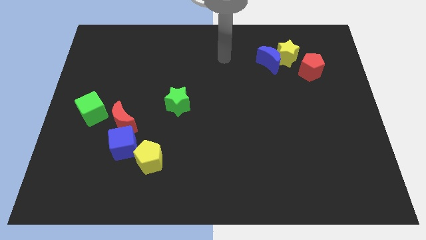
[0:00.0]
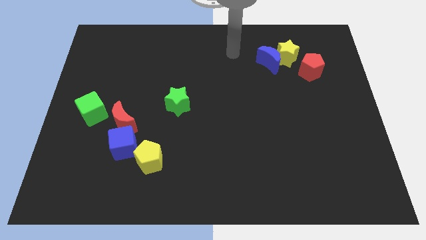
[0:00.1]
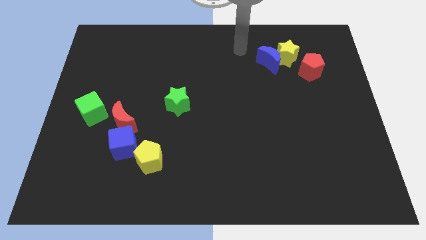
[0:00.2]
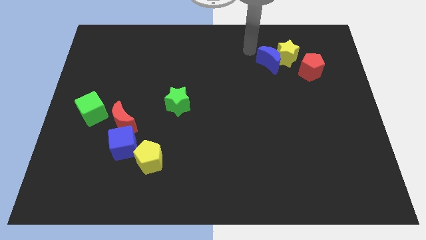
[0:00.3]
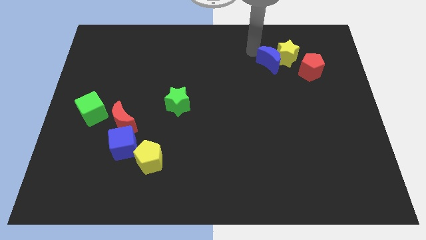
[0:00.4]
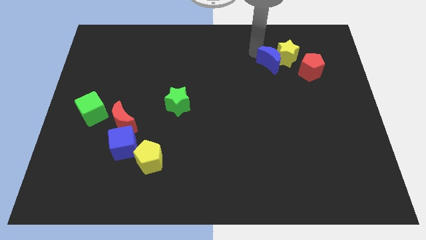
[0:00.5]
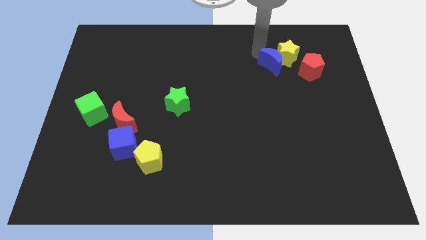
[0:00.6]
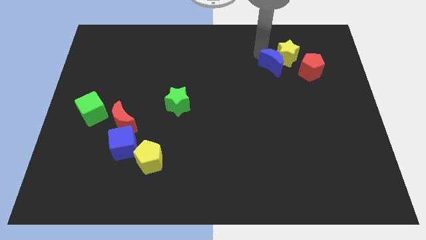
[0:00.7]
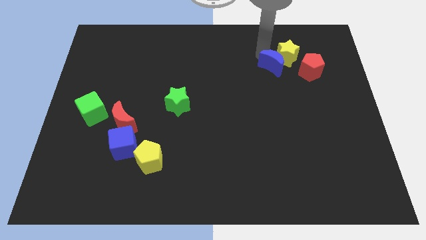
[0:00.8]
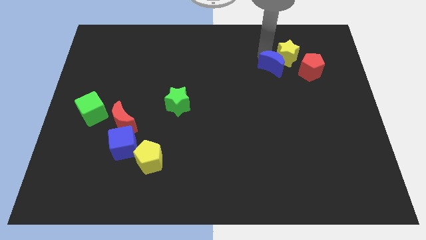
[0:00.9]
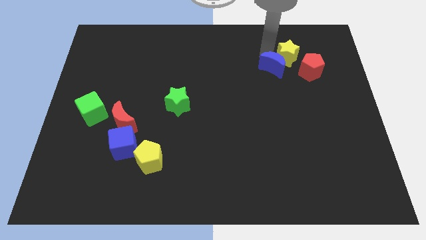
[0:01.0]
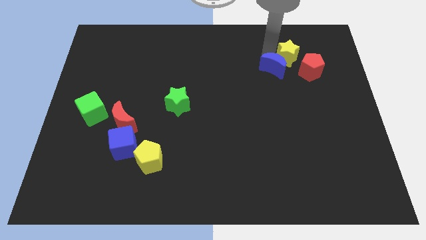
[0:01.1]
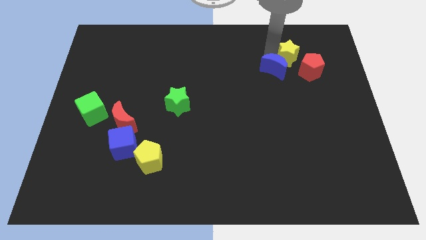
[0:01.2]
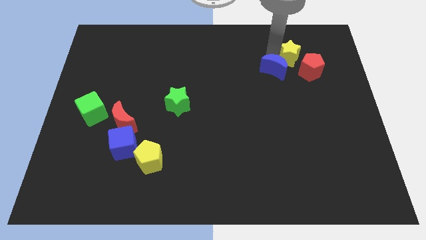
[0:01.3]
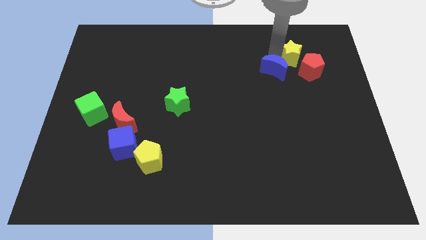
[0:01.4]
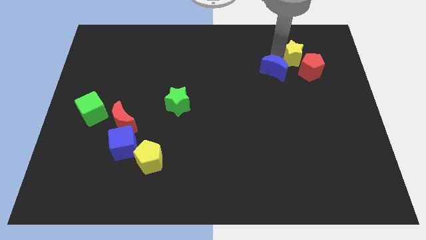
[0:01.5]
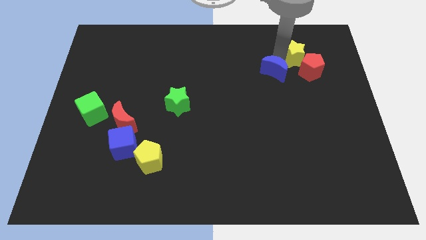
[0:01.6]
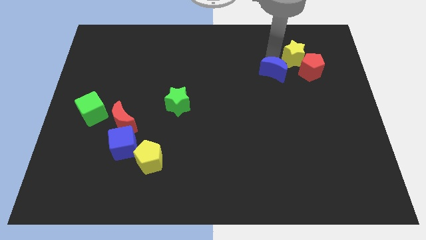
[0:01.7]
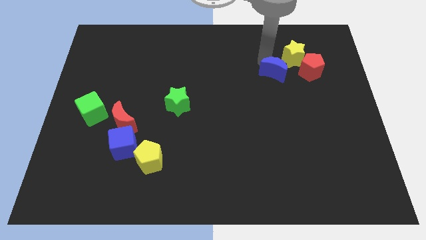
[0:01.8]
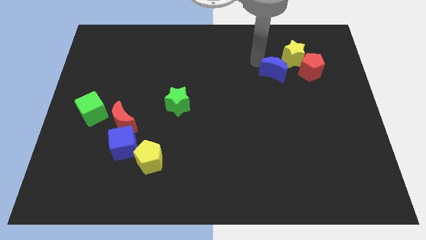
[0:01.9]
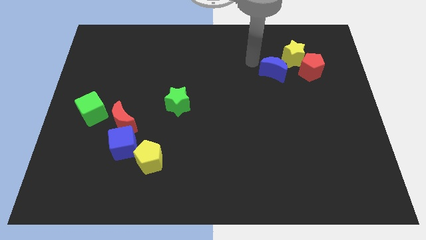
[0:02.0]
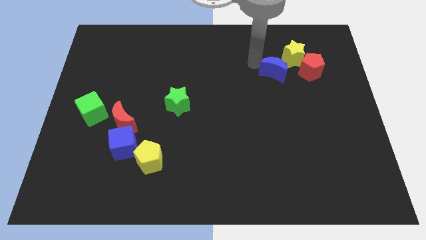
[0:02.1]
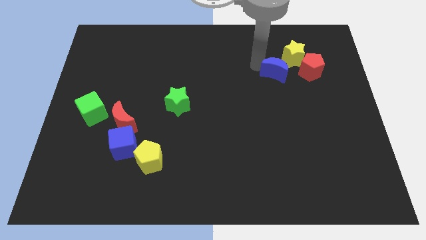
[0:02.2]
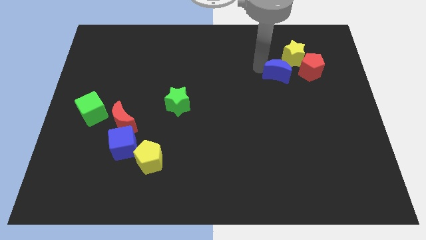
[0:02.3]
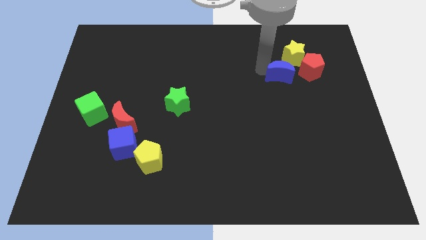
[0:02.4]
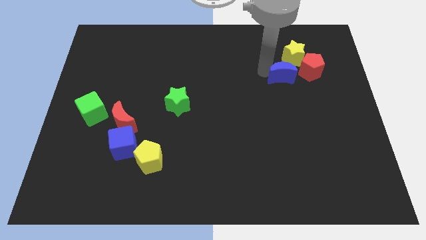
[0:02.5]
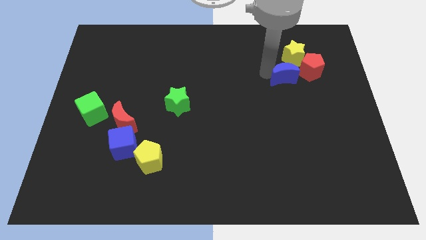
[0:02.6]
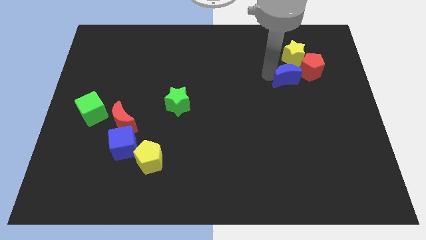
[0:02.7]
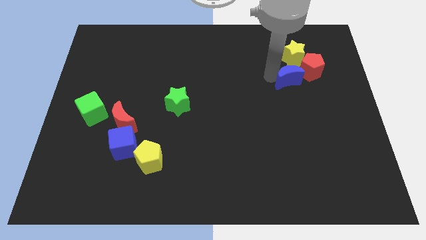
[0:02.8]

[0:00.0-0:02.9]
slide the blue moon somewhat diagonally downwards and right

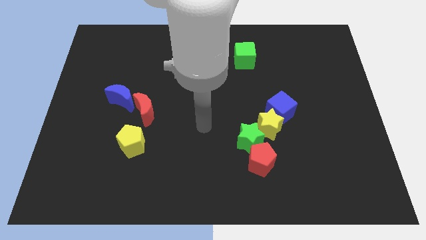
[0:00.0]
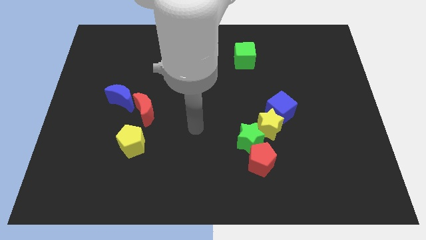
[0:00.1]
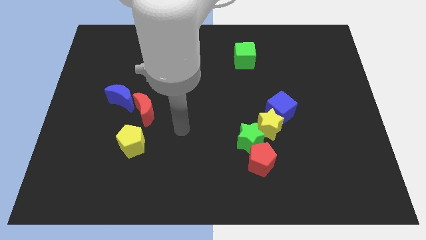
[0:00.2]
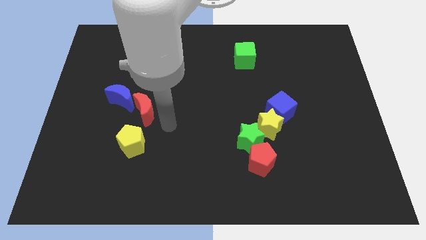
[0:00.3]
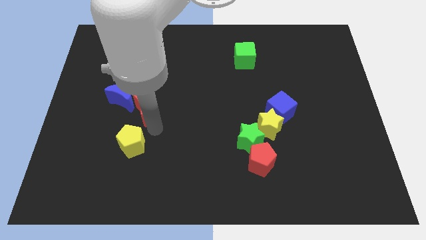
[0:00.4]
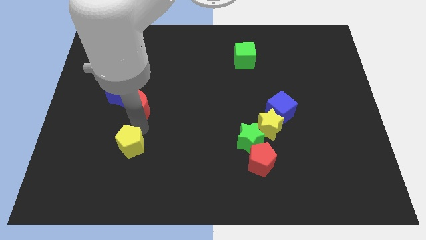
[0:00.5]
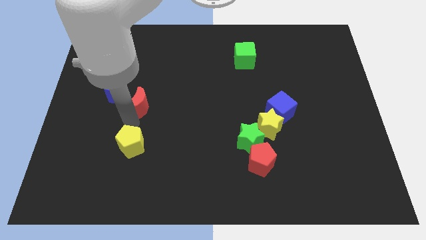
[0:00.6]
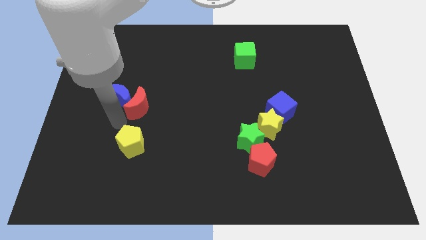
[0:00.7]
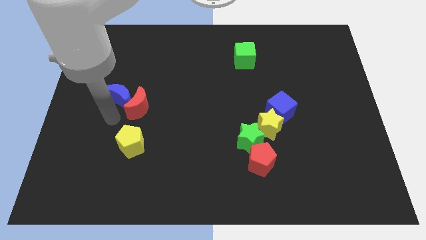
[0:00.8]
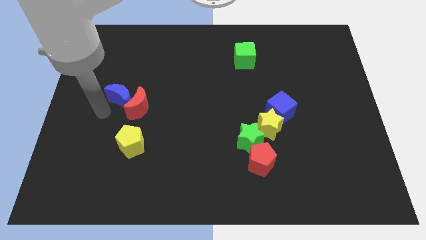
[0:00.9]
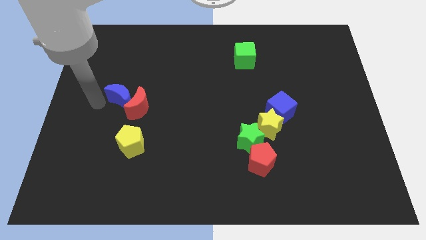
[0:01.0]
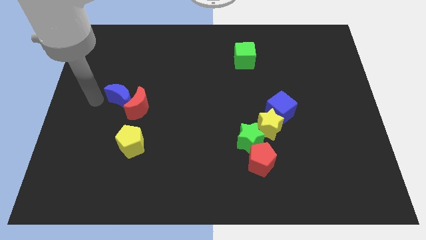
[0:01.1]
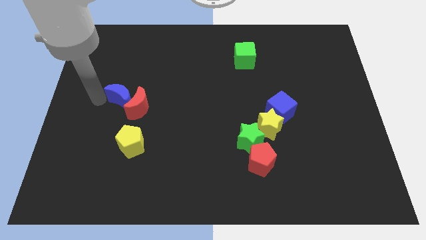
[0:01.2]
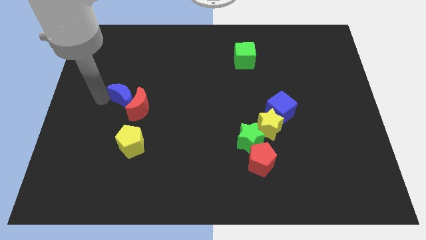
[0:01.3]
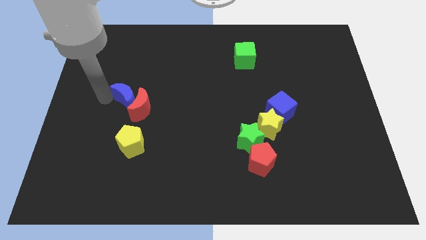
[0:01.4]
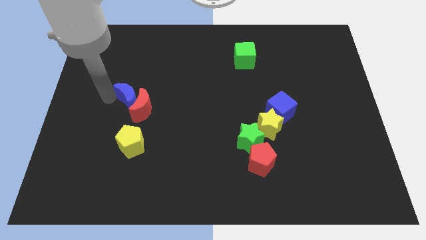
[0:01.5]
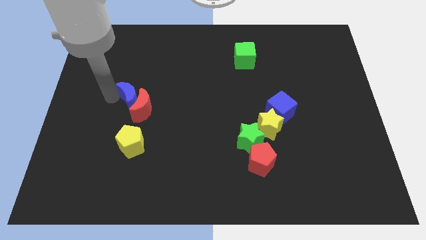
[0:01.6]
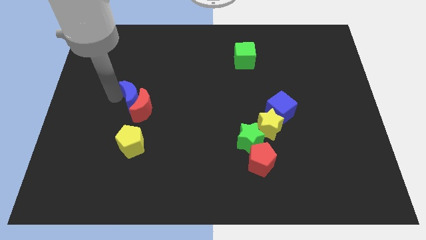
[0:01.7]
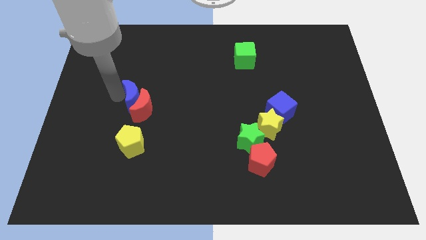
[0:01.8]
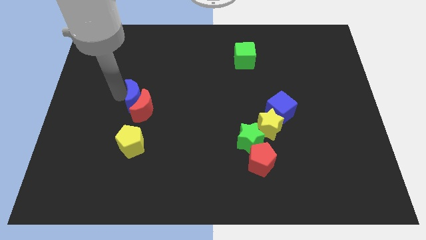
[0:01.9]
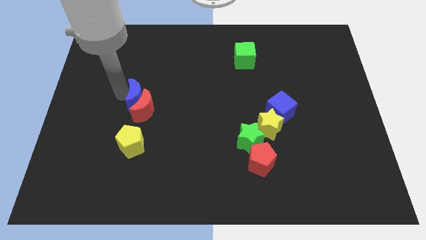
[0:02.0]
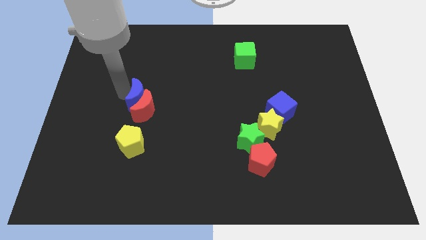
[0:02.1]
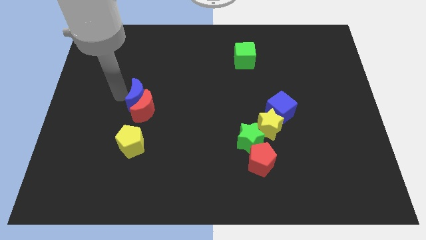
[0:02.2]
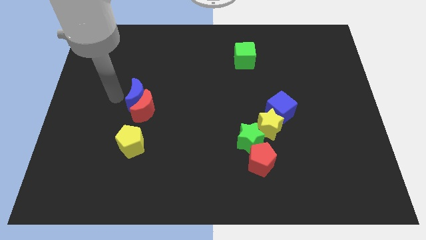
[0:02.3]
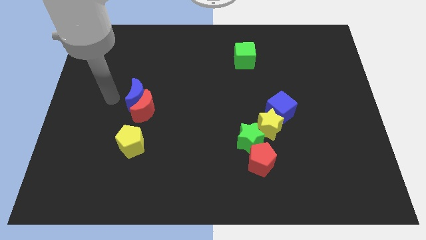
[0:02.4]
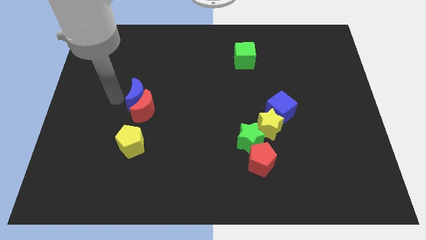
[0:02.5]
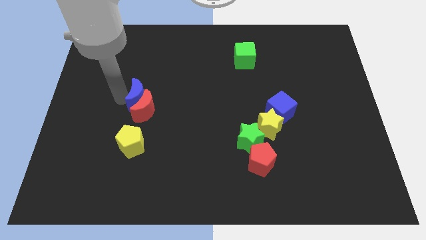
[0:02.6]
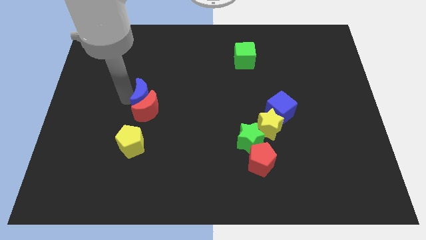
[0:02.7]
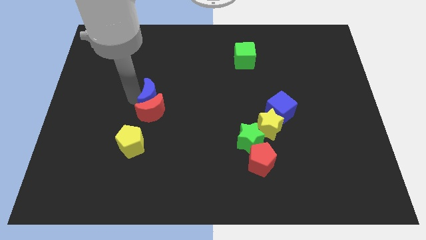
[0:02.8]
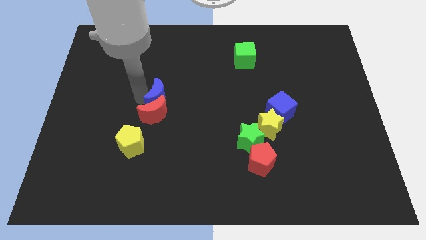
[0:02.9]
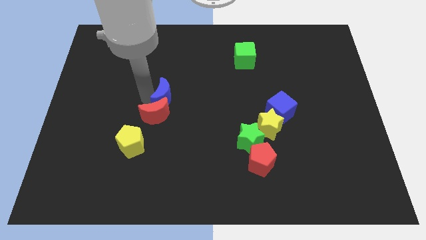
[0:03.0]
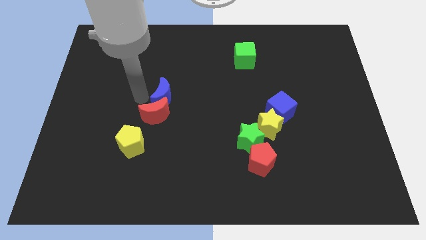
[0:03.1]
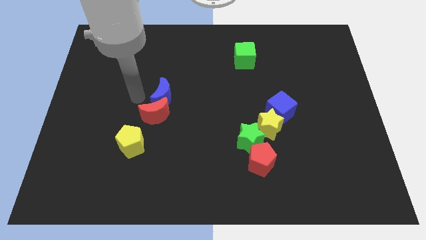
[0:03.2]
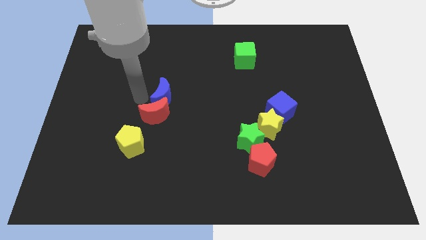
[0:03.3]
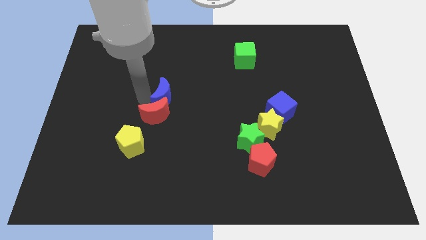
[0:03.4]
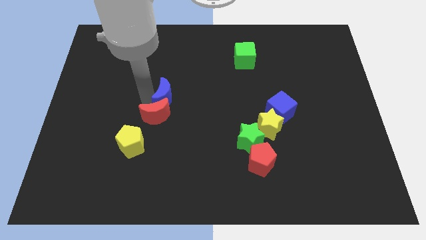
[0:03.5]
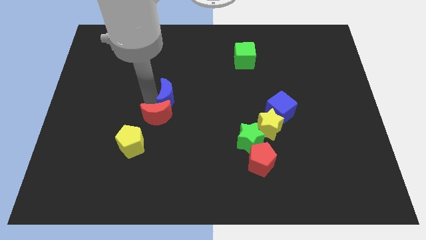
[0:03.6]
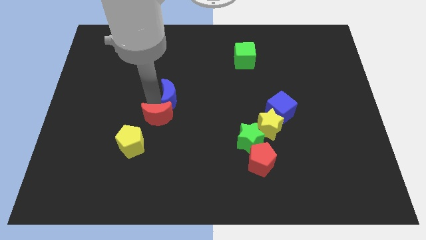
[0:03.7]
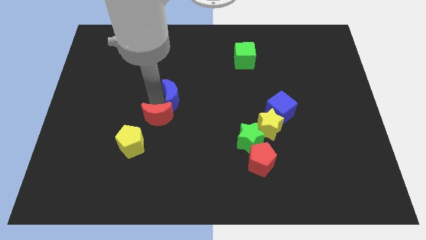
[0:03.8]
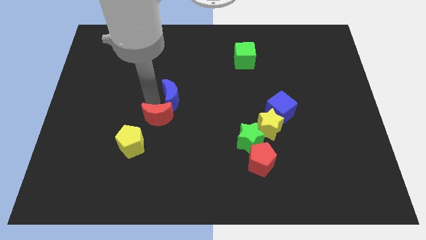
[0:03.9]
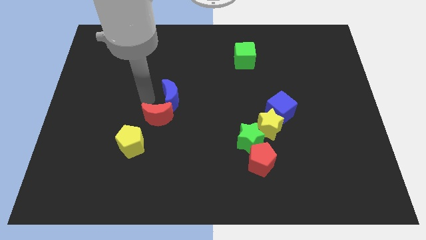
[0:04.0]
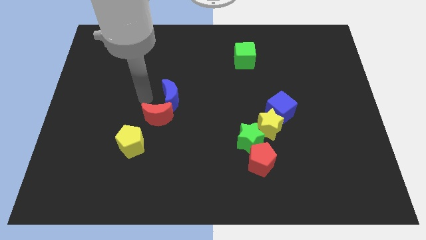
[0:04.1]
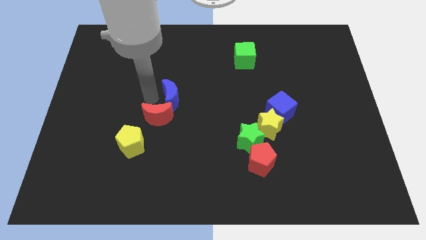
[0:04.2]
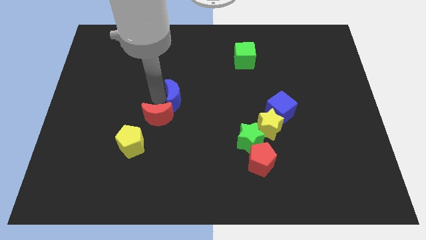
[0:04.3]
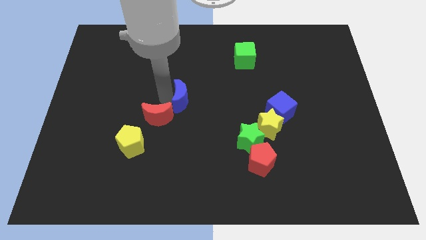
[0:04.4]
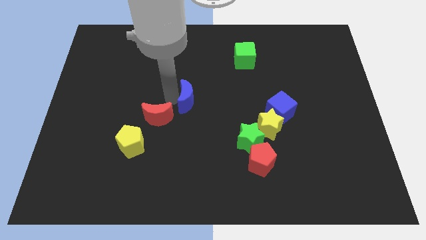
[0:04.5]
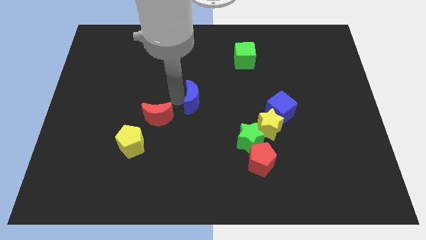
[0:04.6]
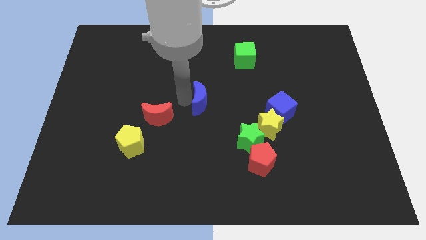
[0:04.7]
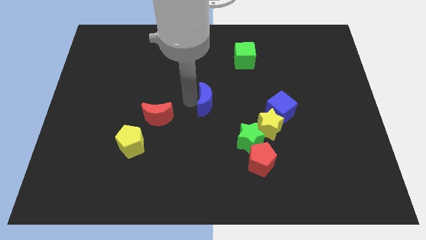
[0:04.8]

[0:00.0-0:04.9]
move the blue moon right
